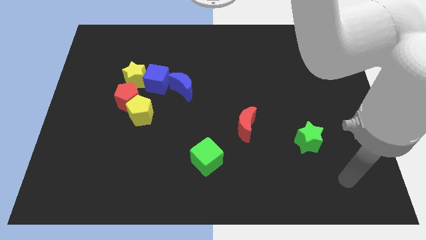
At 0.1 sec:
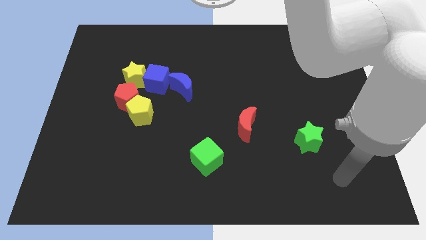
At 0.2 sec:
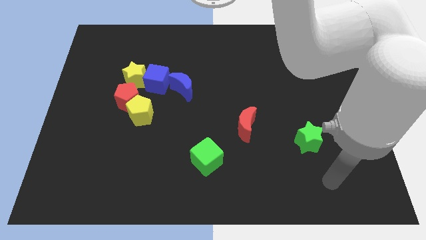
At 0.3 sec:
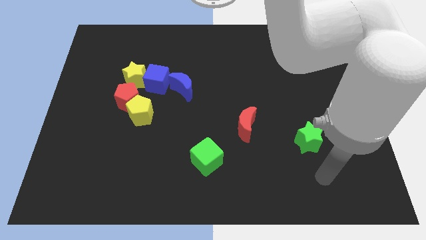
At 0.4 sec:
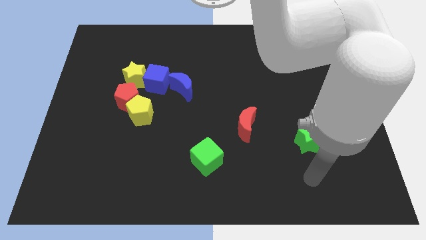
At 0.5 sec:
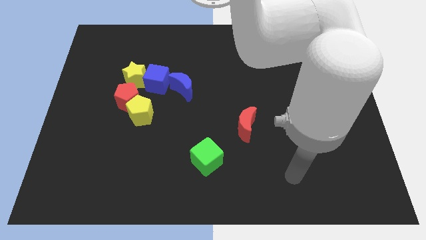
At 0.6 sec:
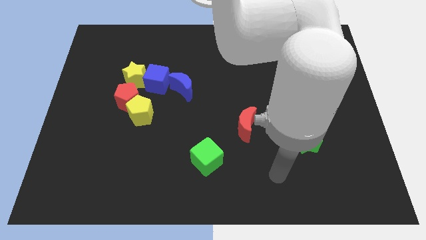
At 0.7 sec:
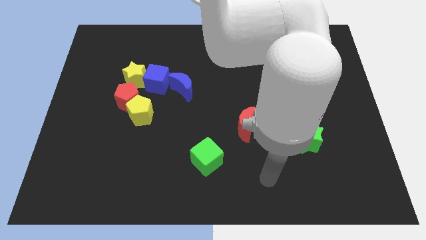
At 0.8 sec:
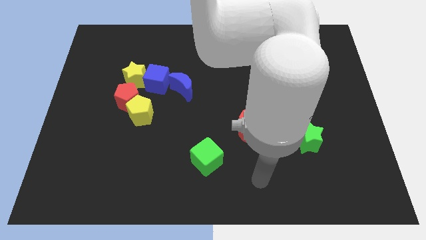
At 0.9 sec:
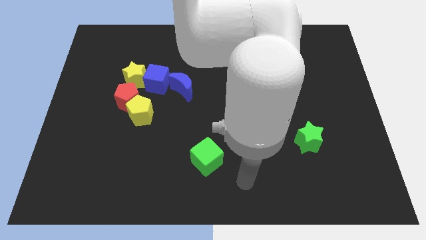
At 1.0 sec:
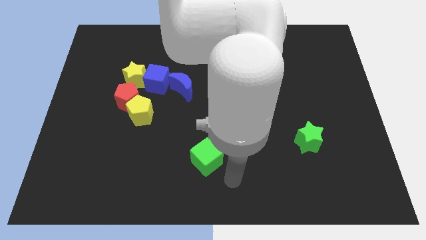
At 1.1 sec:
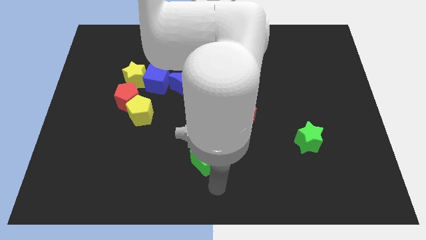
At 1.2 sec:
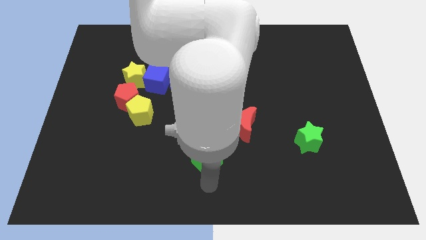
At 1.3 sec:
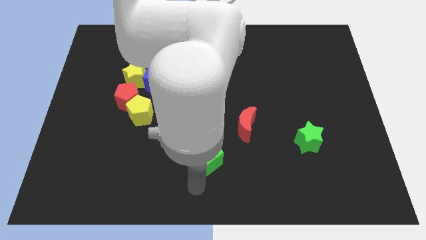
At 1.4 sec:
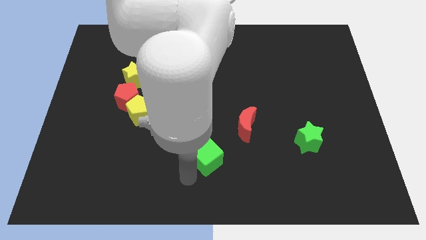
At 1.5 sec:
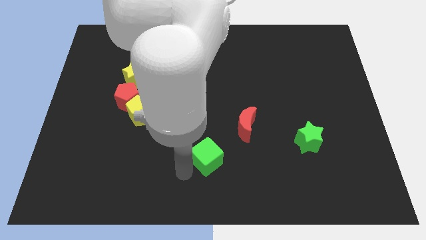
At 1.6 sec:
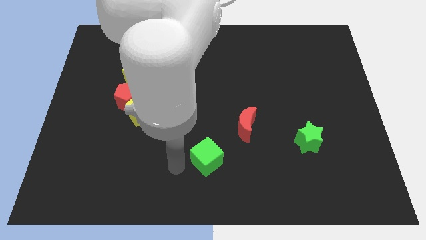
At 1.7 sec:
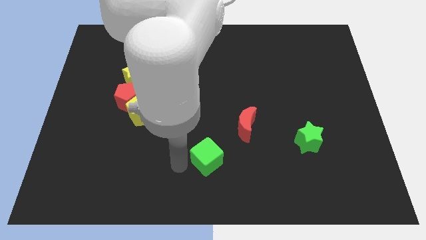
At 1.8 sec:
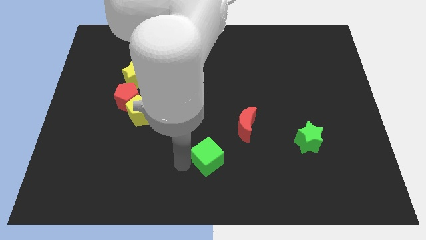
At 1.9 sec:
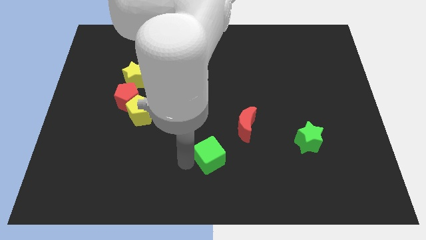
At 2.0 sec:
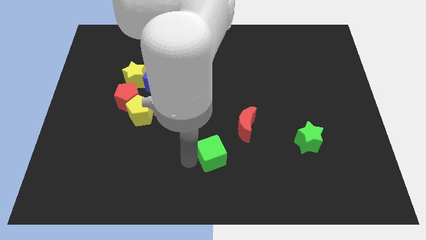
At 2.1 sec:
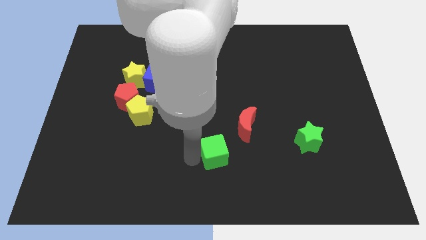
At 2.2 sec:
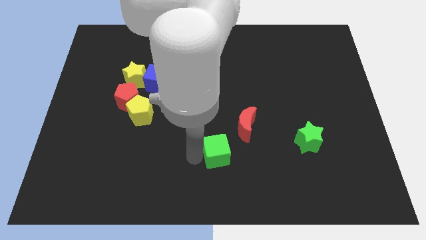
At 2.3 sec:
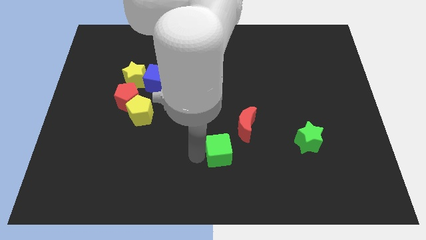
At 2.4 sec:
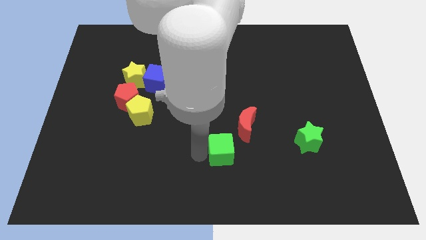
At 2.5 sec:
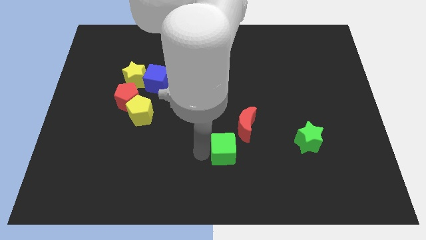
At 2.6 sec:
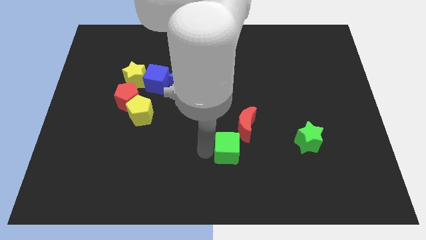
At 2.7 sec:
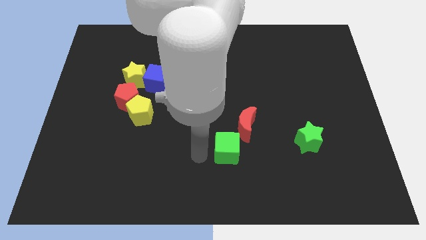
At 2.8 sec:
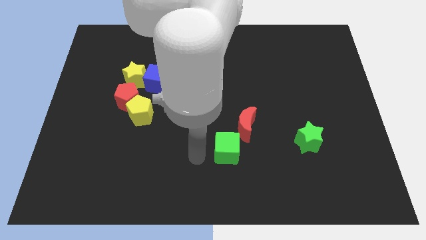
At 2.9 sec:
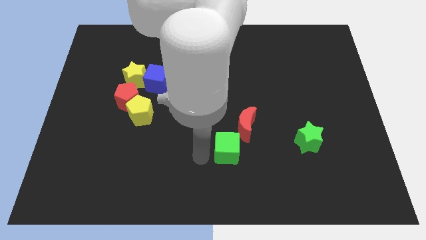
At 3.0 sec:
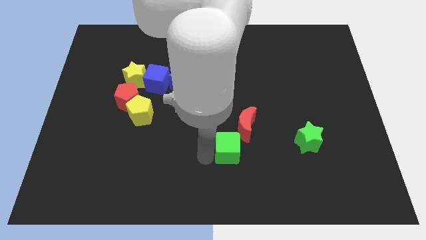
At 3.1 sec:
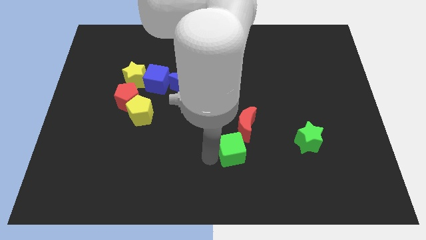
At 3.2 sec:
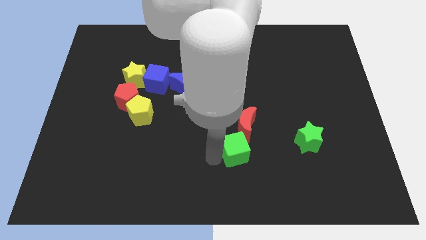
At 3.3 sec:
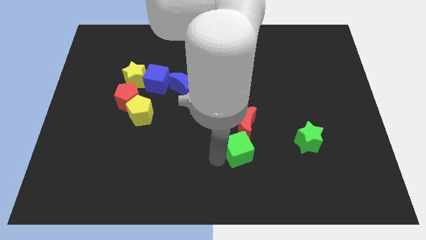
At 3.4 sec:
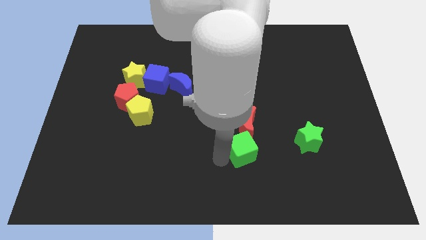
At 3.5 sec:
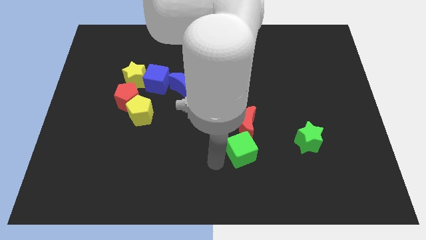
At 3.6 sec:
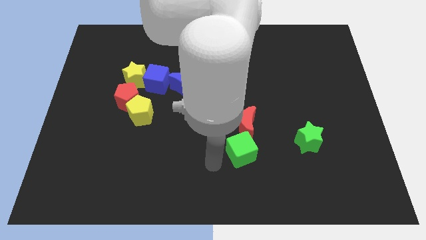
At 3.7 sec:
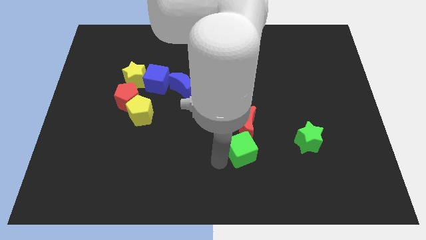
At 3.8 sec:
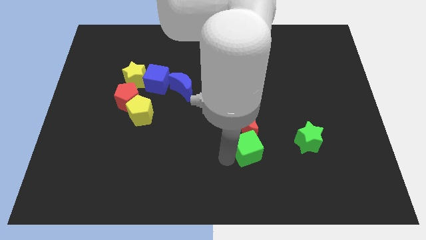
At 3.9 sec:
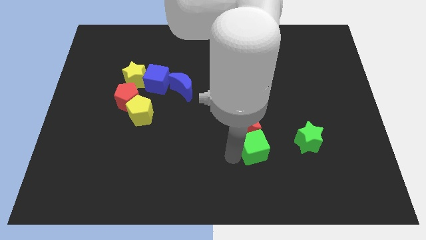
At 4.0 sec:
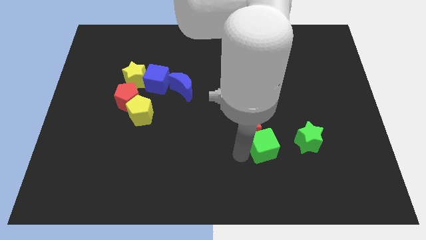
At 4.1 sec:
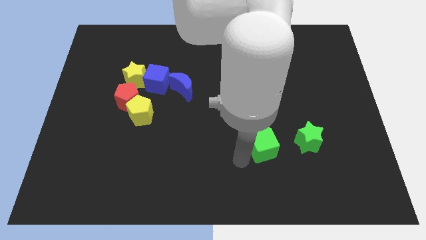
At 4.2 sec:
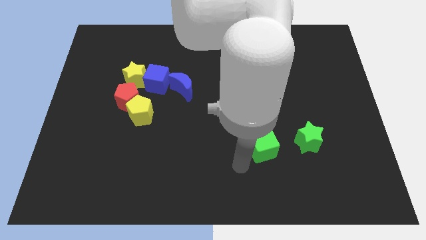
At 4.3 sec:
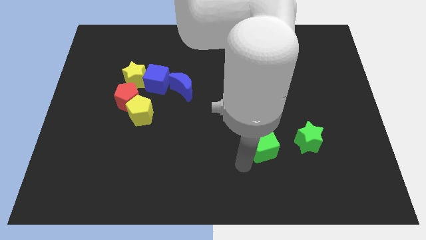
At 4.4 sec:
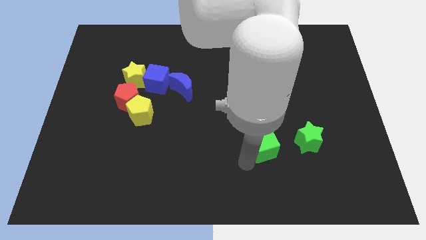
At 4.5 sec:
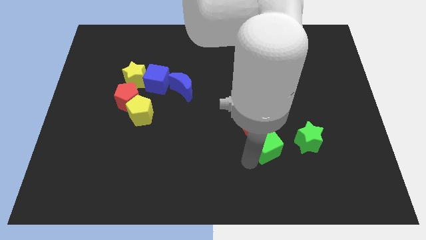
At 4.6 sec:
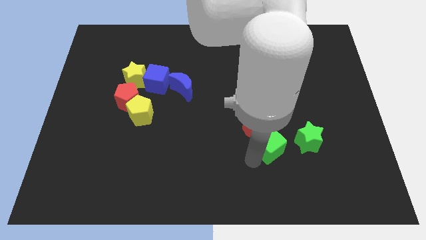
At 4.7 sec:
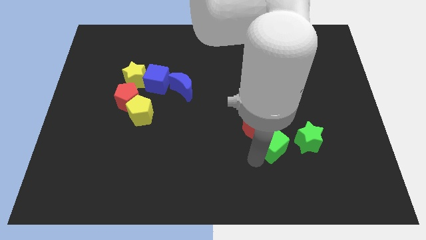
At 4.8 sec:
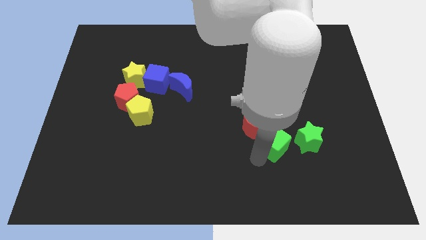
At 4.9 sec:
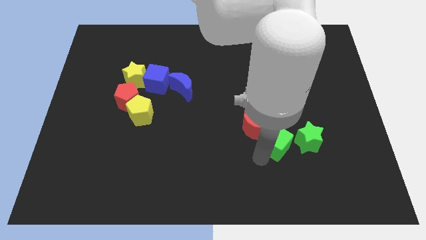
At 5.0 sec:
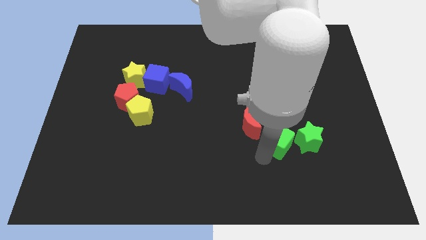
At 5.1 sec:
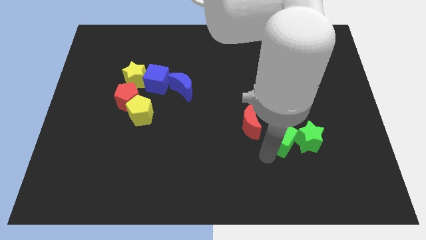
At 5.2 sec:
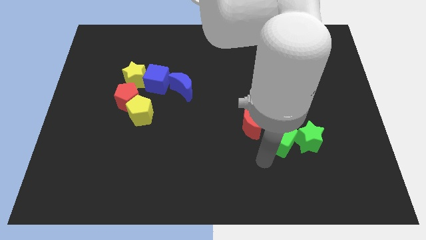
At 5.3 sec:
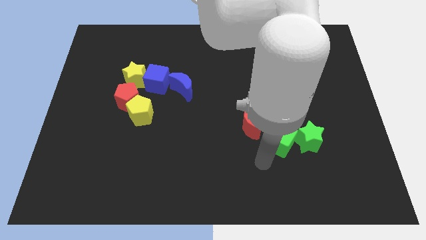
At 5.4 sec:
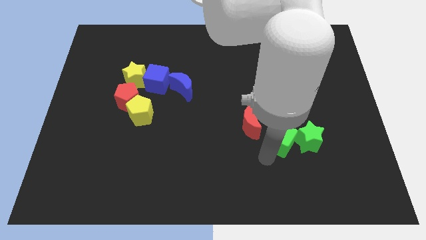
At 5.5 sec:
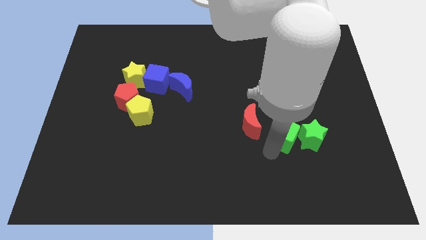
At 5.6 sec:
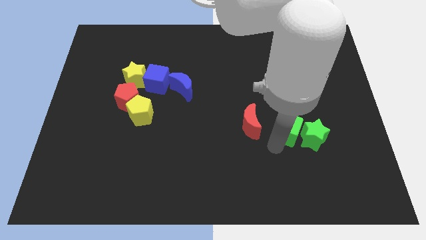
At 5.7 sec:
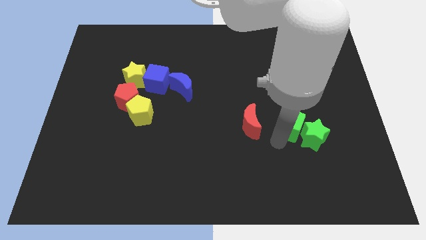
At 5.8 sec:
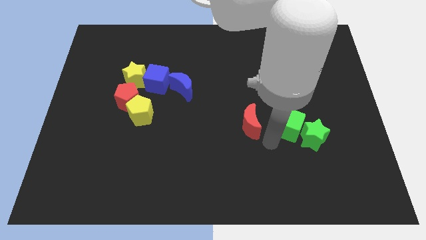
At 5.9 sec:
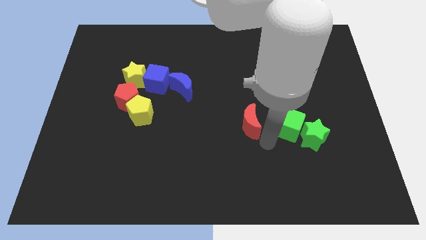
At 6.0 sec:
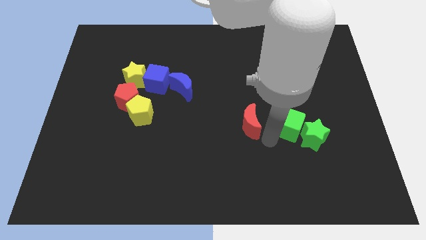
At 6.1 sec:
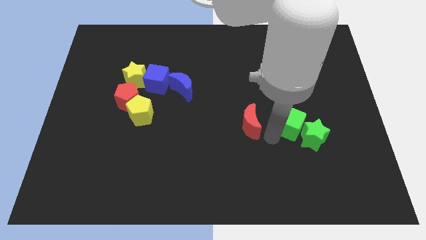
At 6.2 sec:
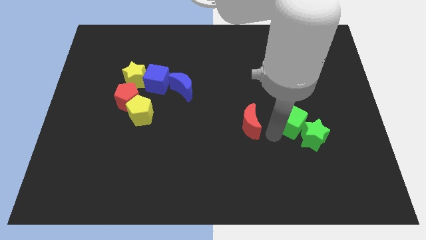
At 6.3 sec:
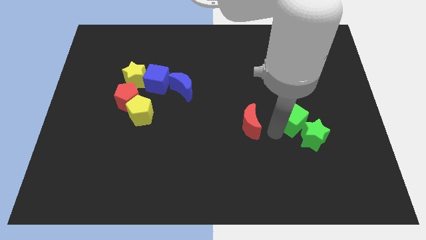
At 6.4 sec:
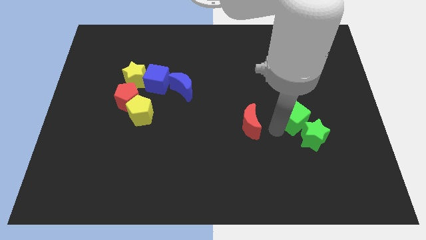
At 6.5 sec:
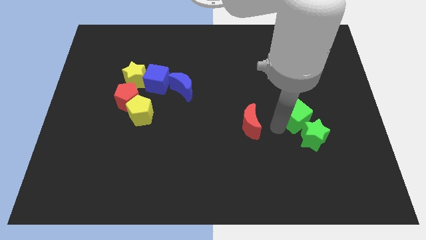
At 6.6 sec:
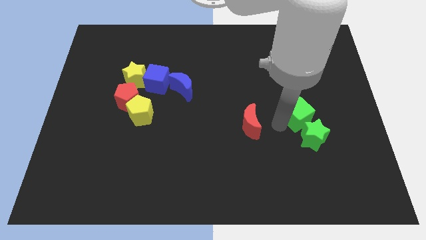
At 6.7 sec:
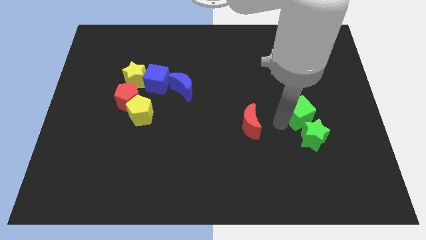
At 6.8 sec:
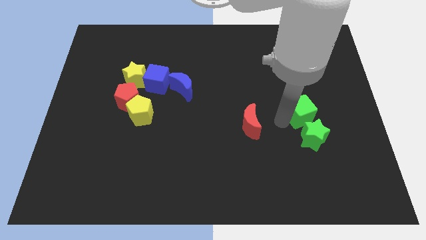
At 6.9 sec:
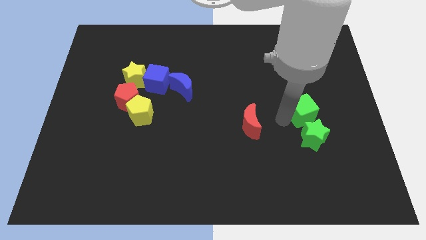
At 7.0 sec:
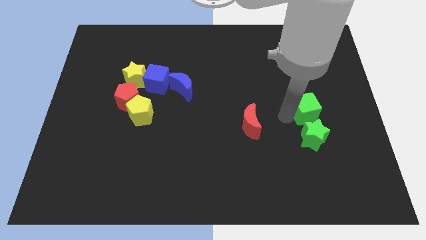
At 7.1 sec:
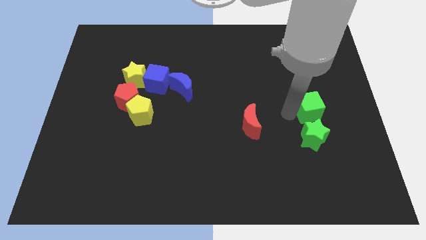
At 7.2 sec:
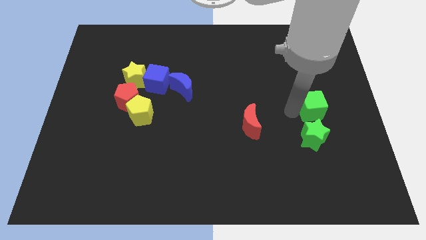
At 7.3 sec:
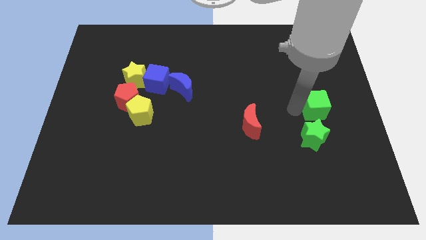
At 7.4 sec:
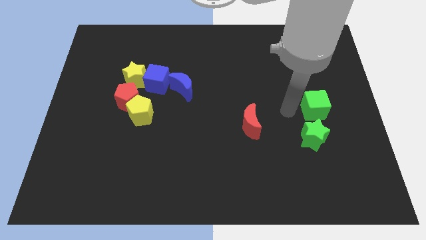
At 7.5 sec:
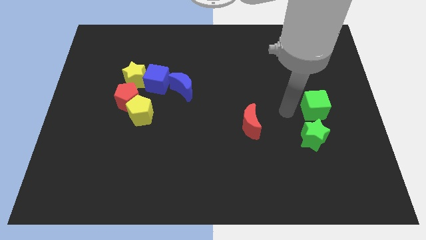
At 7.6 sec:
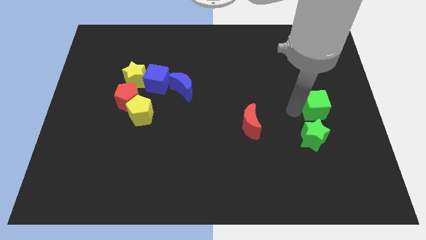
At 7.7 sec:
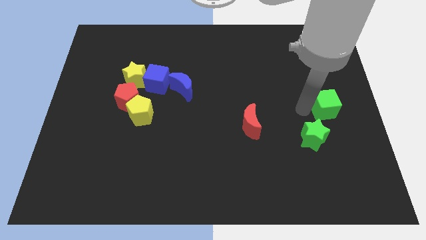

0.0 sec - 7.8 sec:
slide the green cube to the right side
